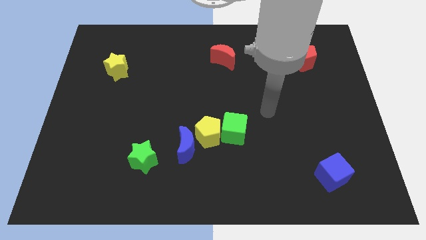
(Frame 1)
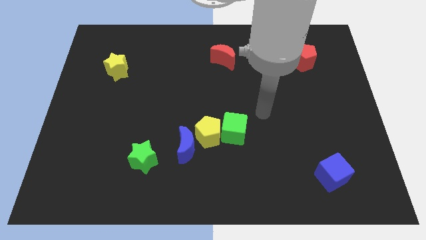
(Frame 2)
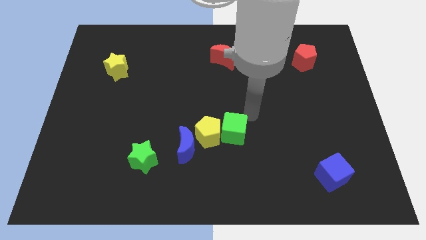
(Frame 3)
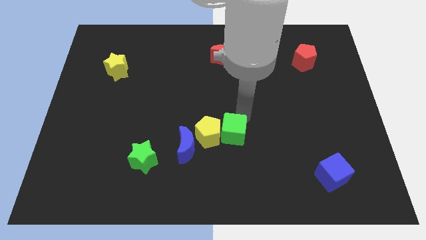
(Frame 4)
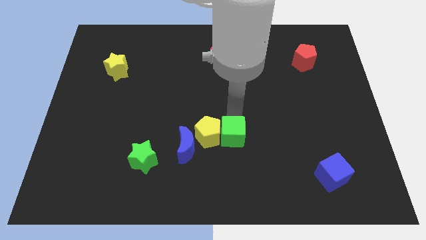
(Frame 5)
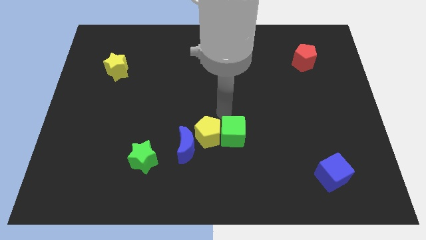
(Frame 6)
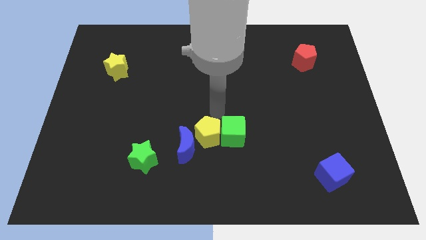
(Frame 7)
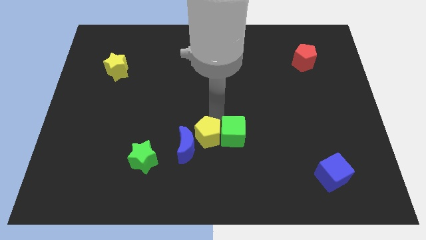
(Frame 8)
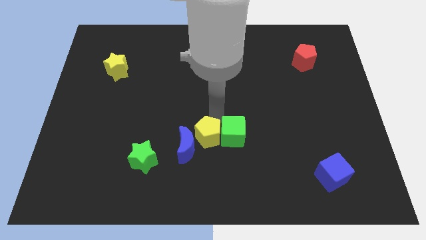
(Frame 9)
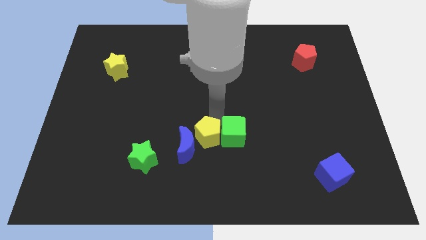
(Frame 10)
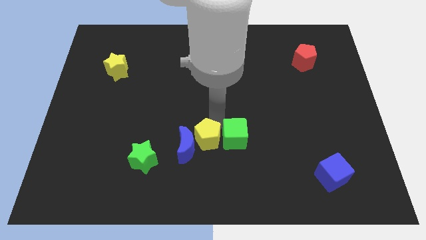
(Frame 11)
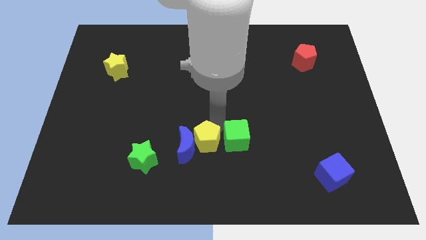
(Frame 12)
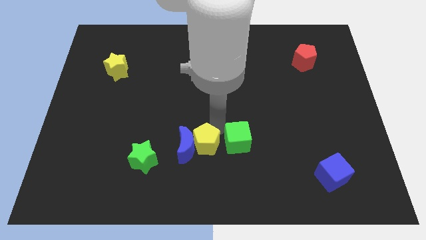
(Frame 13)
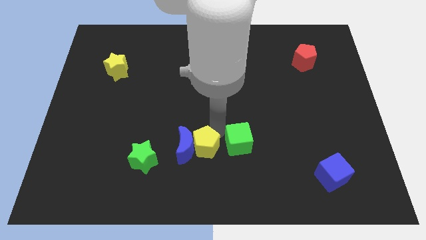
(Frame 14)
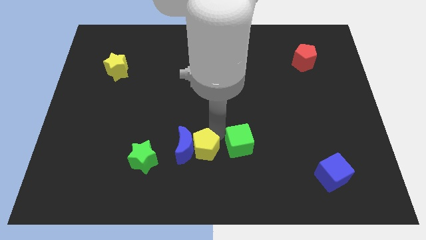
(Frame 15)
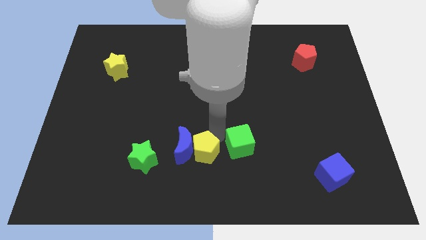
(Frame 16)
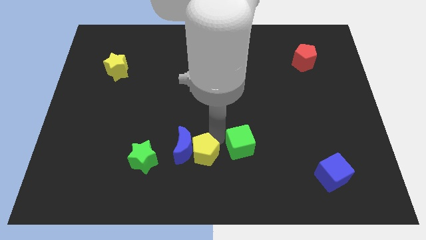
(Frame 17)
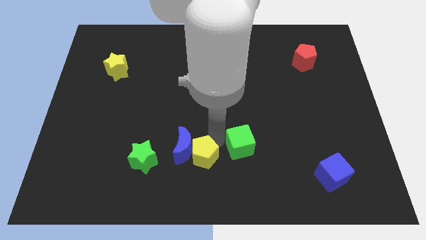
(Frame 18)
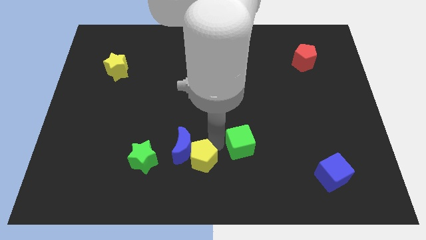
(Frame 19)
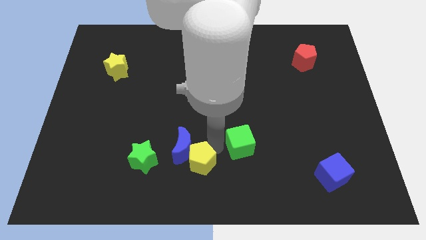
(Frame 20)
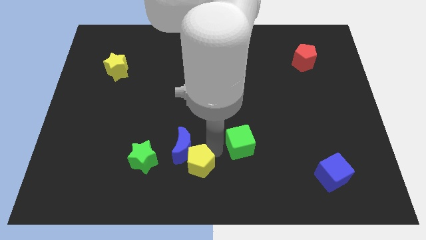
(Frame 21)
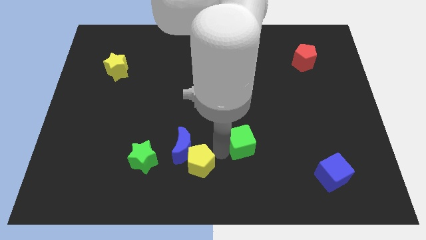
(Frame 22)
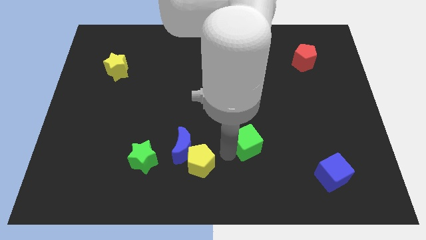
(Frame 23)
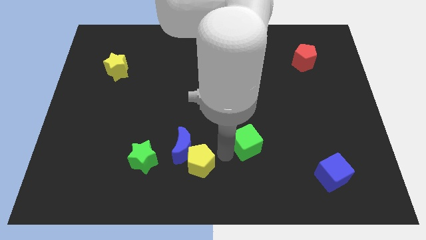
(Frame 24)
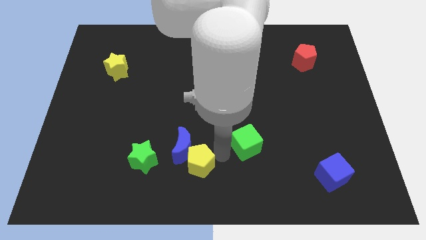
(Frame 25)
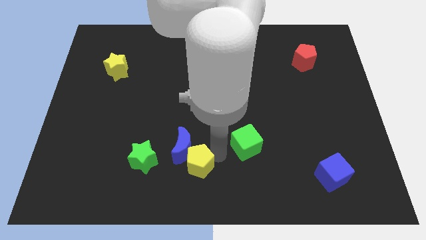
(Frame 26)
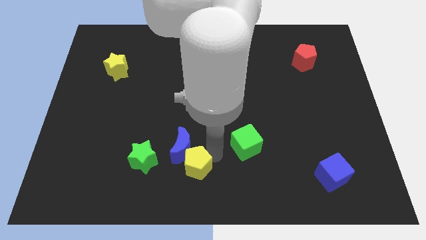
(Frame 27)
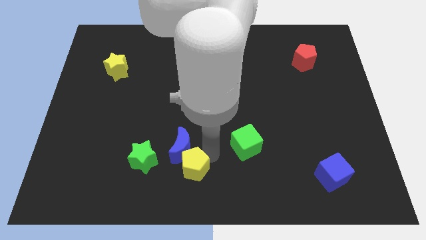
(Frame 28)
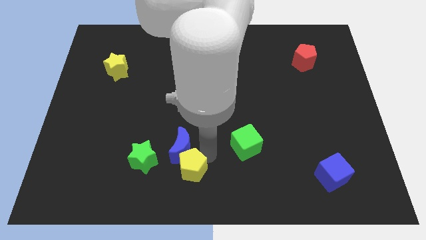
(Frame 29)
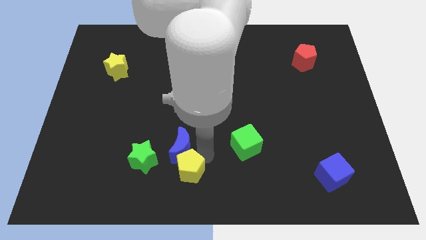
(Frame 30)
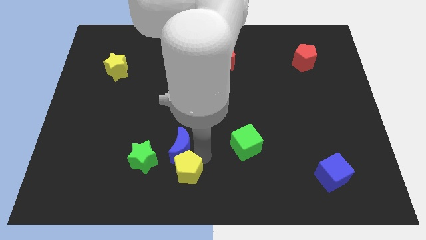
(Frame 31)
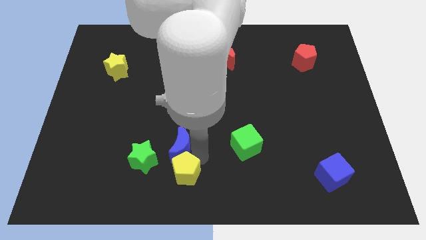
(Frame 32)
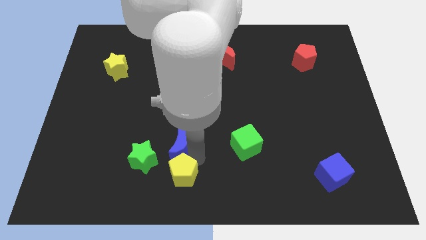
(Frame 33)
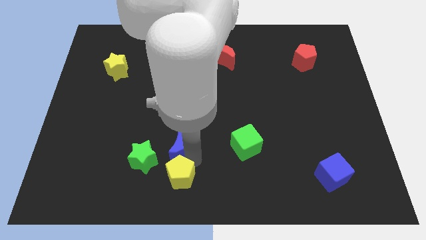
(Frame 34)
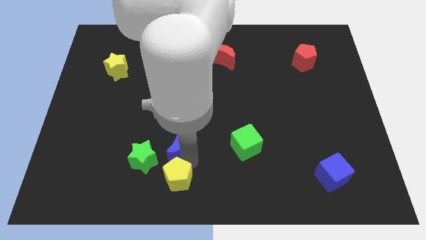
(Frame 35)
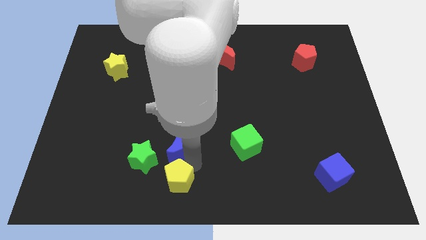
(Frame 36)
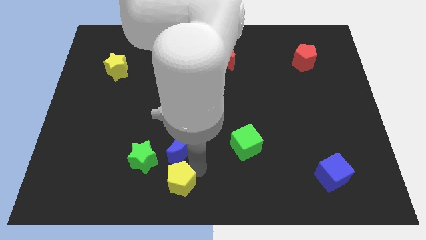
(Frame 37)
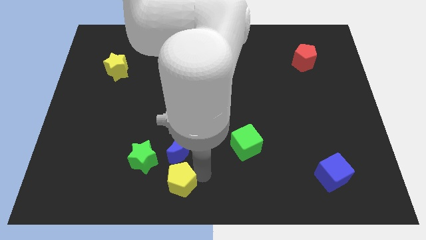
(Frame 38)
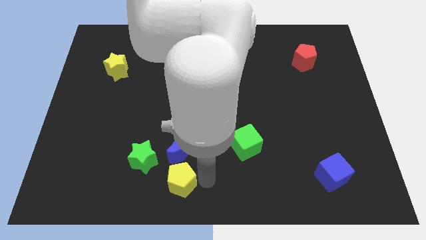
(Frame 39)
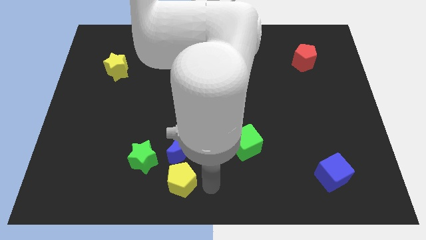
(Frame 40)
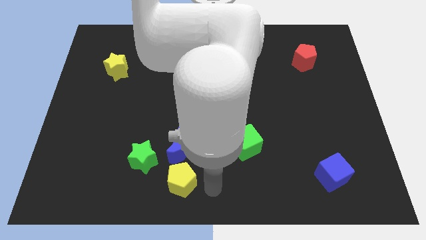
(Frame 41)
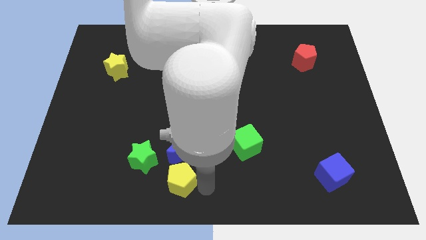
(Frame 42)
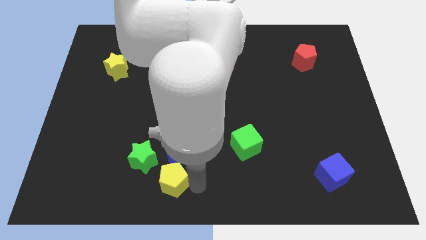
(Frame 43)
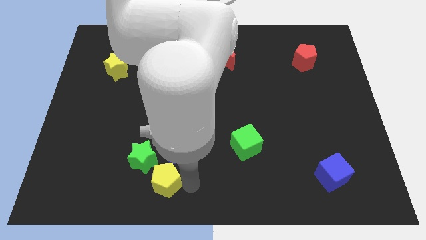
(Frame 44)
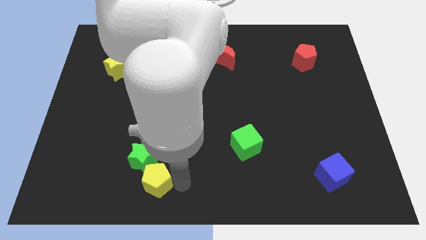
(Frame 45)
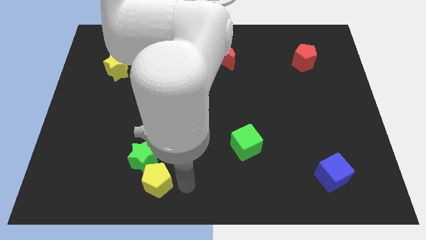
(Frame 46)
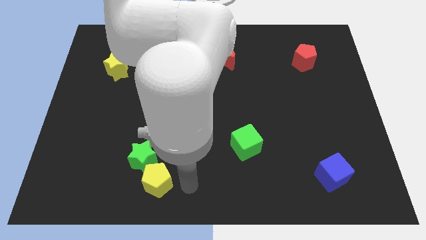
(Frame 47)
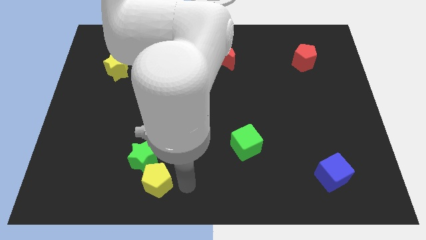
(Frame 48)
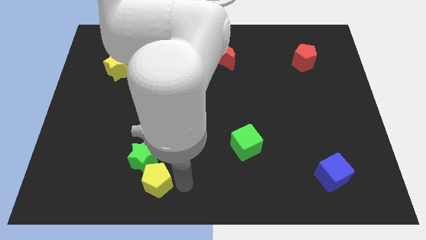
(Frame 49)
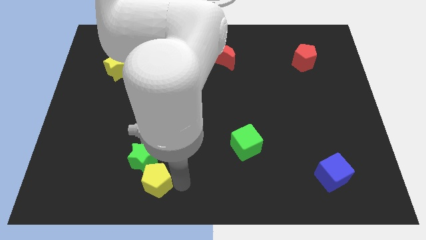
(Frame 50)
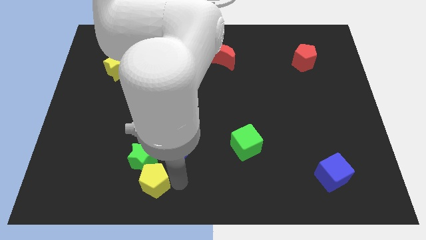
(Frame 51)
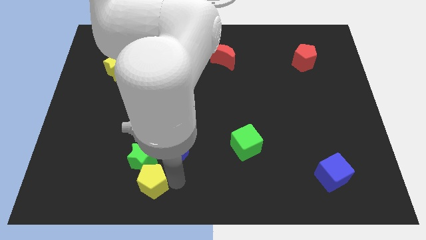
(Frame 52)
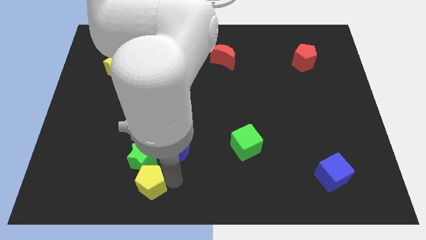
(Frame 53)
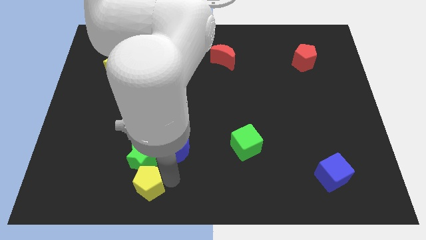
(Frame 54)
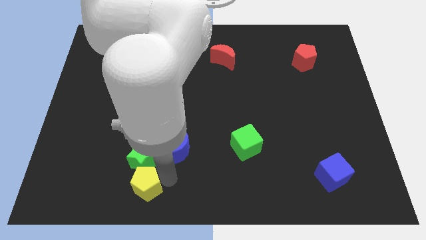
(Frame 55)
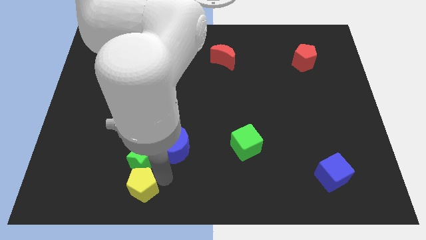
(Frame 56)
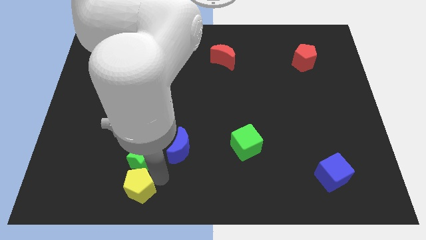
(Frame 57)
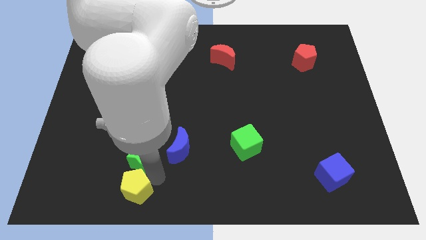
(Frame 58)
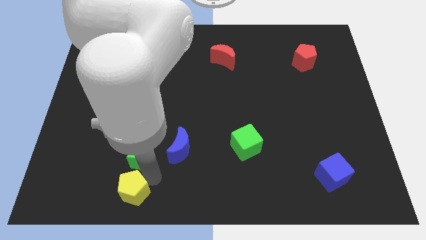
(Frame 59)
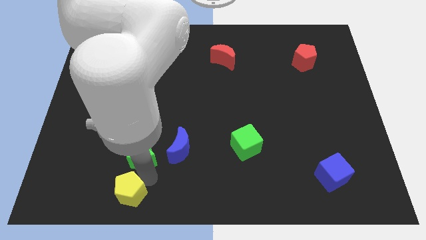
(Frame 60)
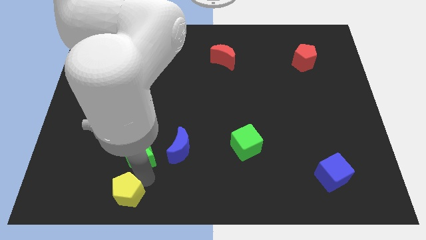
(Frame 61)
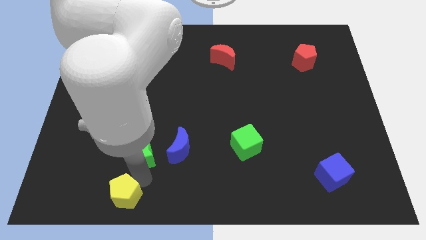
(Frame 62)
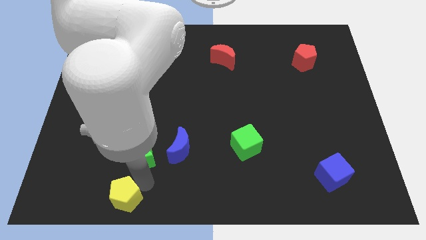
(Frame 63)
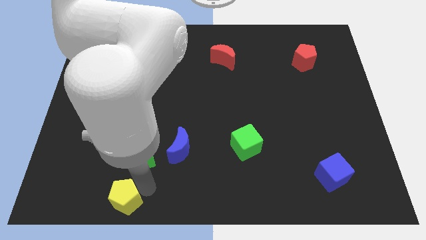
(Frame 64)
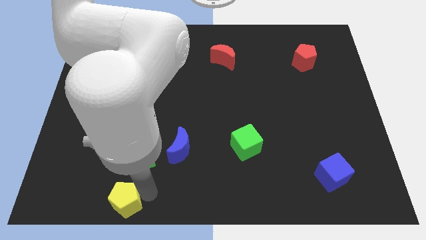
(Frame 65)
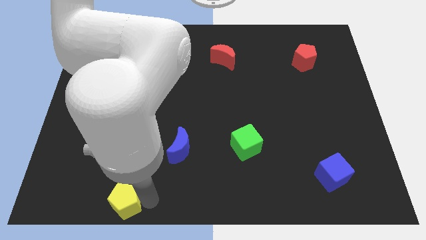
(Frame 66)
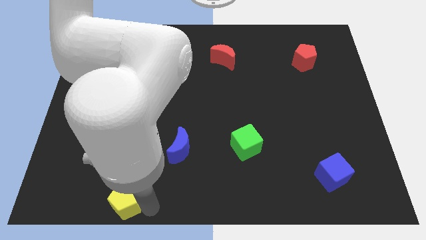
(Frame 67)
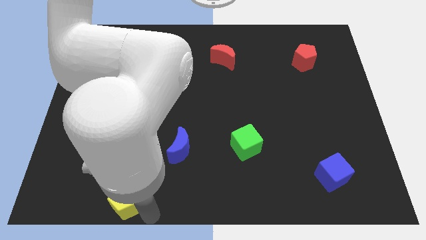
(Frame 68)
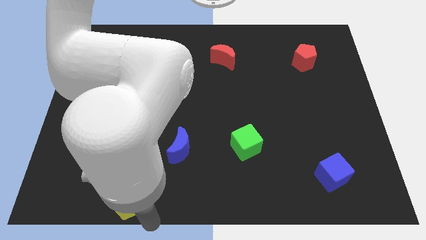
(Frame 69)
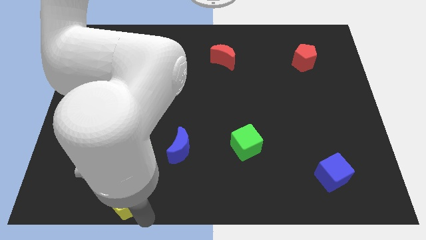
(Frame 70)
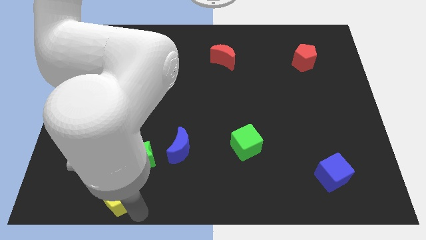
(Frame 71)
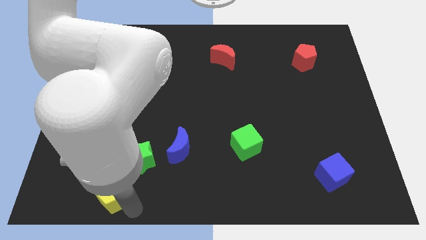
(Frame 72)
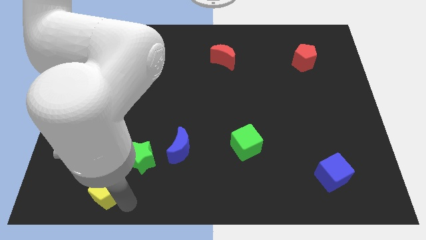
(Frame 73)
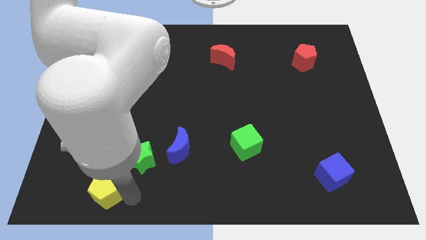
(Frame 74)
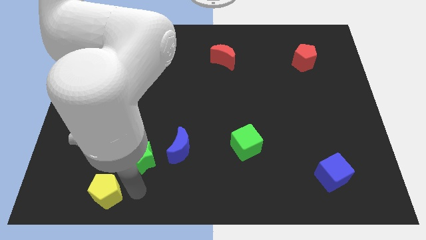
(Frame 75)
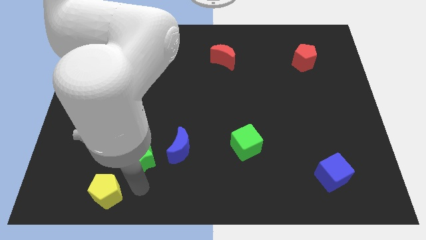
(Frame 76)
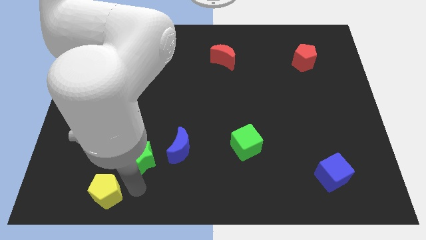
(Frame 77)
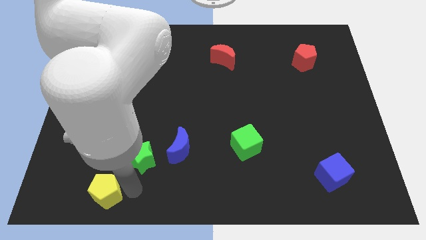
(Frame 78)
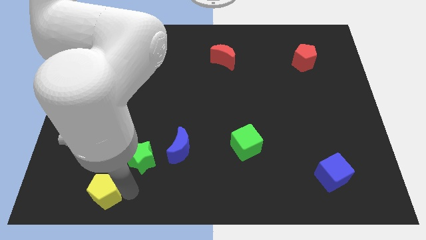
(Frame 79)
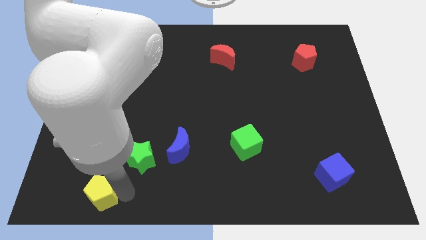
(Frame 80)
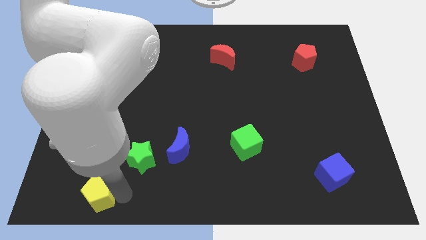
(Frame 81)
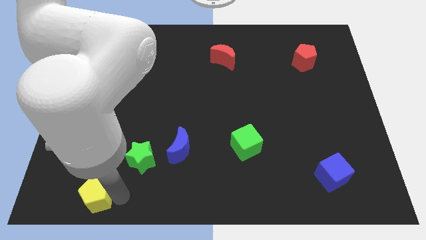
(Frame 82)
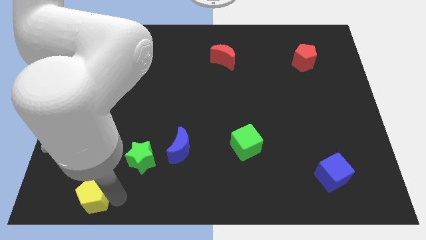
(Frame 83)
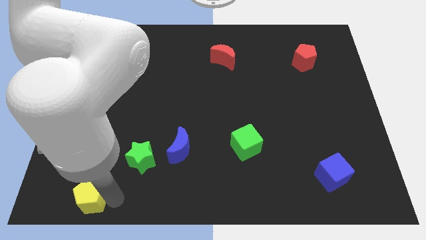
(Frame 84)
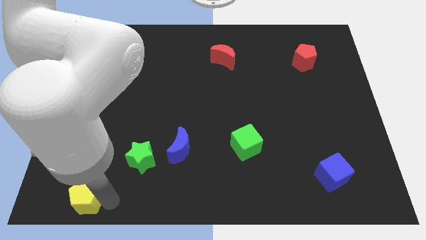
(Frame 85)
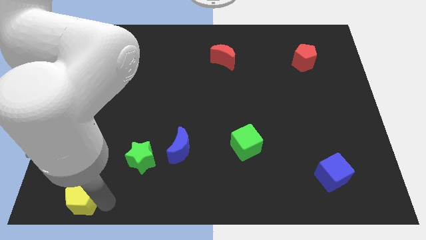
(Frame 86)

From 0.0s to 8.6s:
slide the yellow pentagon to the lower left corner
